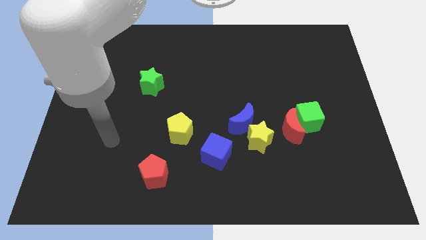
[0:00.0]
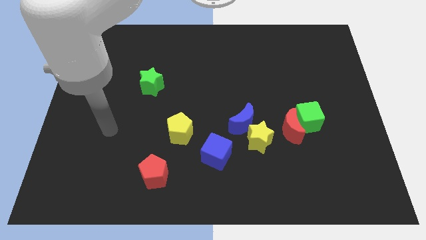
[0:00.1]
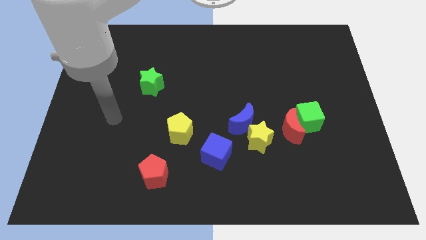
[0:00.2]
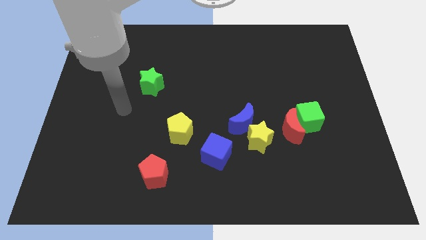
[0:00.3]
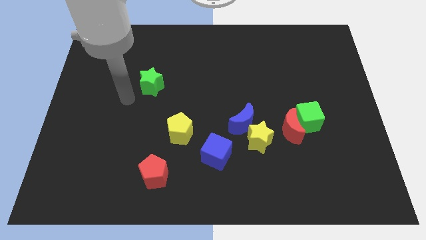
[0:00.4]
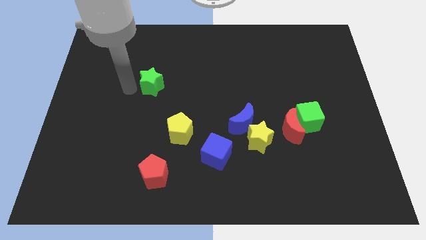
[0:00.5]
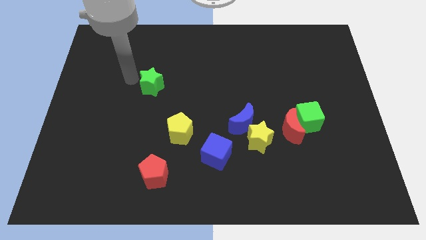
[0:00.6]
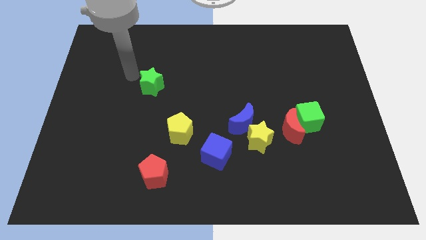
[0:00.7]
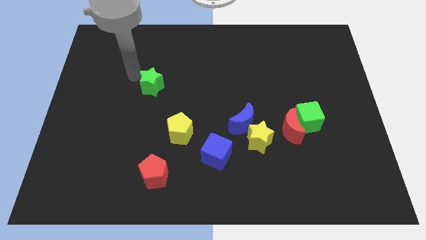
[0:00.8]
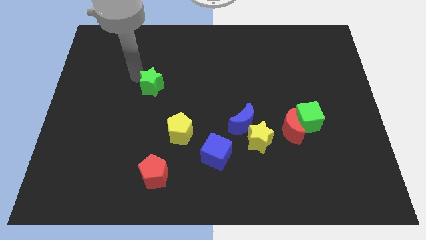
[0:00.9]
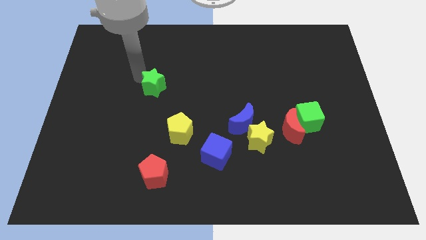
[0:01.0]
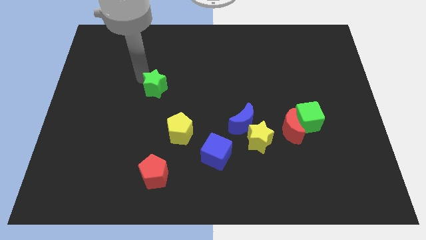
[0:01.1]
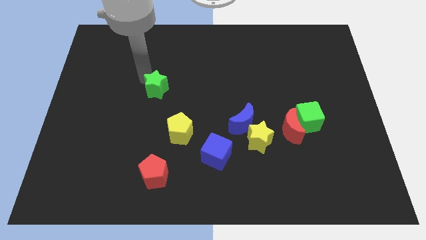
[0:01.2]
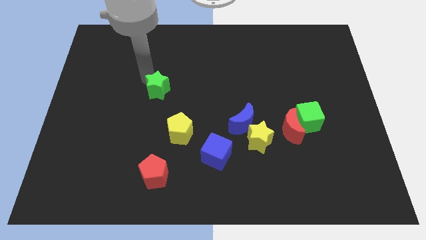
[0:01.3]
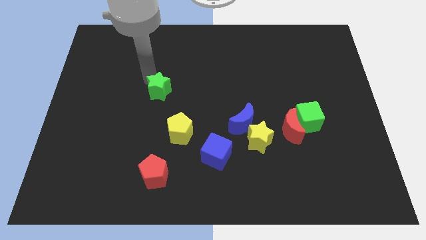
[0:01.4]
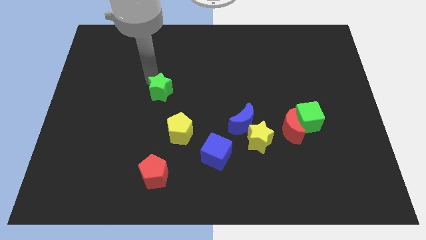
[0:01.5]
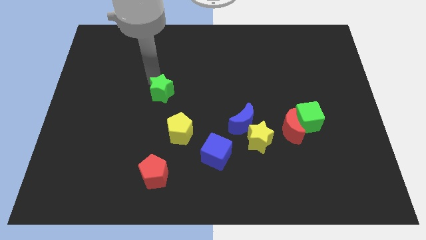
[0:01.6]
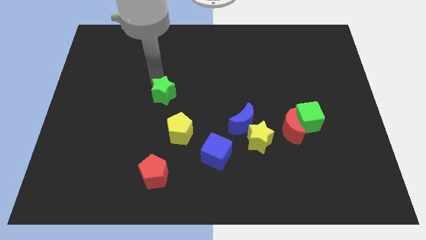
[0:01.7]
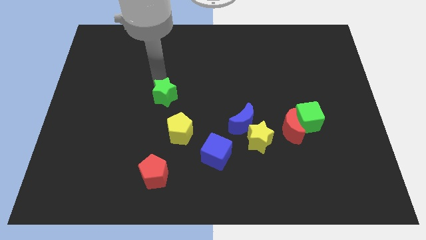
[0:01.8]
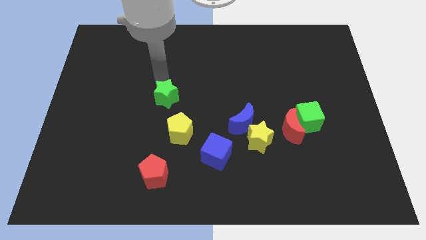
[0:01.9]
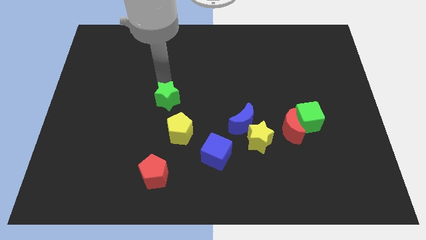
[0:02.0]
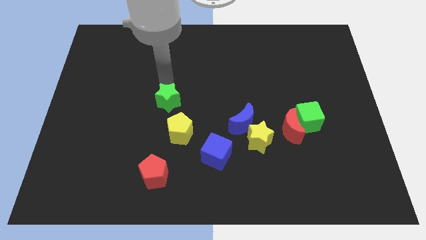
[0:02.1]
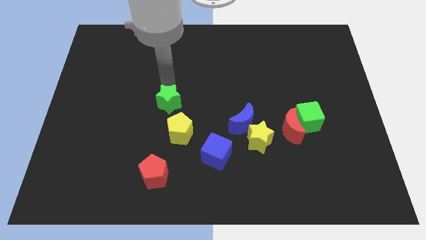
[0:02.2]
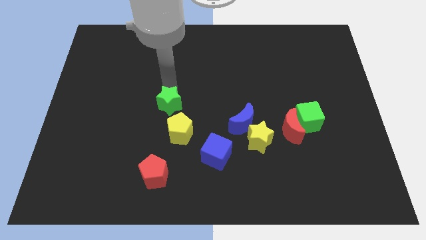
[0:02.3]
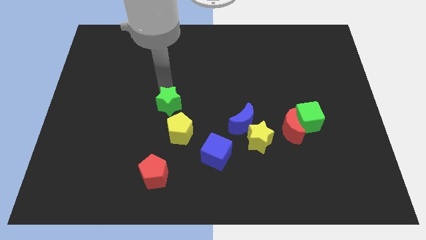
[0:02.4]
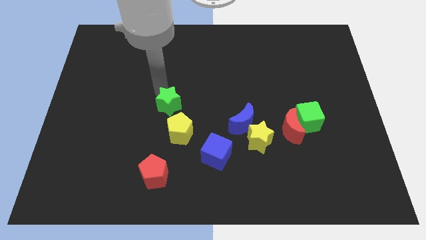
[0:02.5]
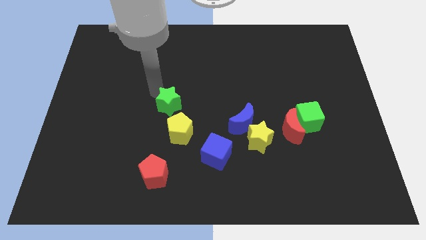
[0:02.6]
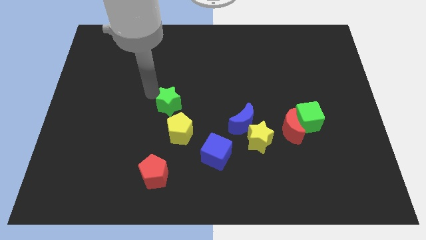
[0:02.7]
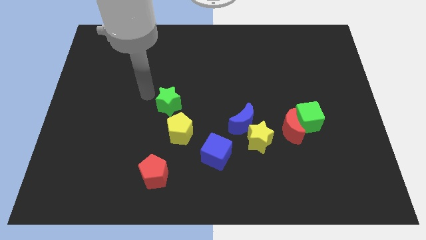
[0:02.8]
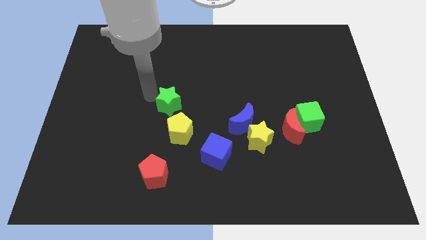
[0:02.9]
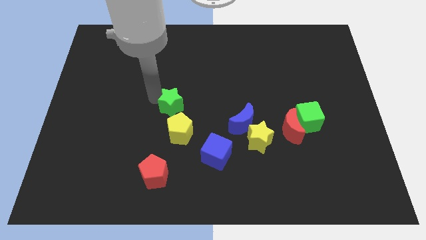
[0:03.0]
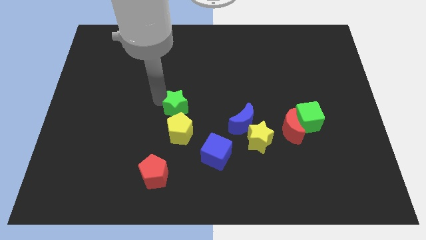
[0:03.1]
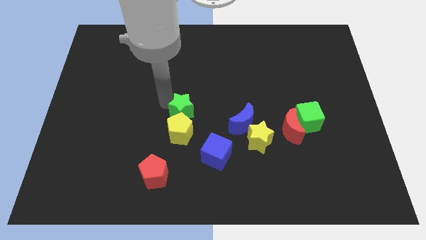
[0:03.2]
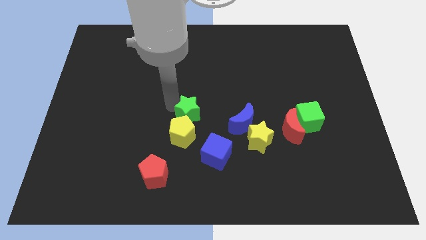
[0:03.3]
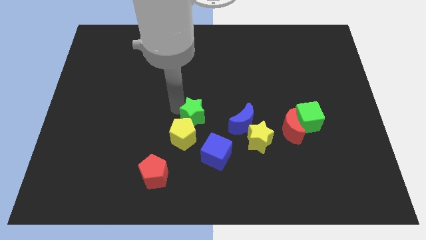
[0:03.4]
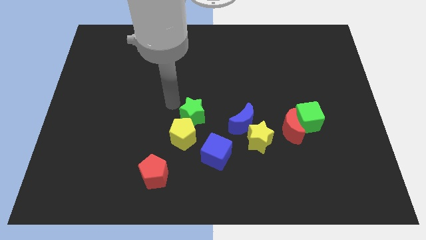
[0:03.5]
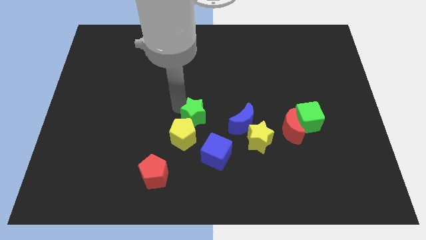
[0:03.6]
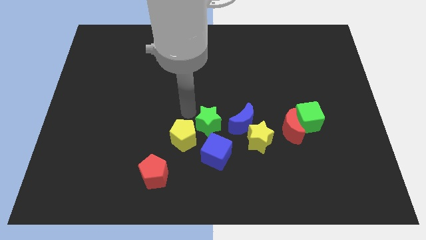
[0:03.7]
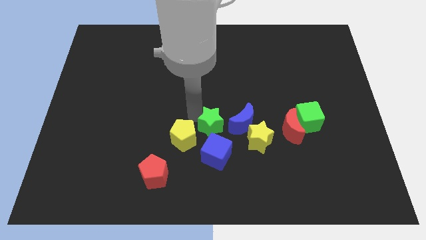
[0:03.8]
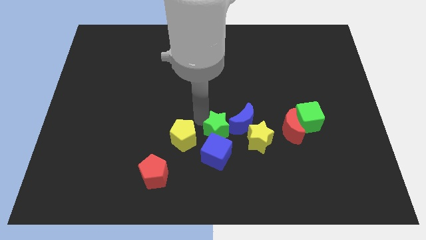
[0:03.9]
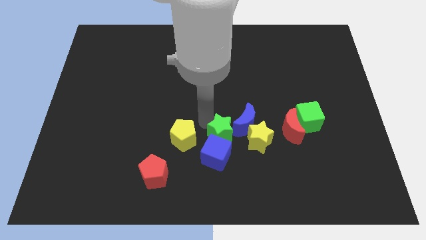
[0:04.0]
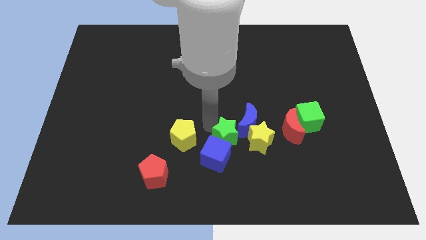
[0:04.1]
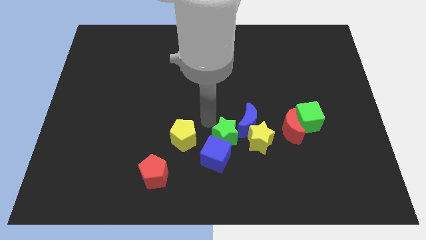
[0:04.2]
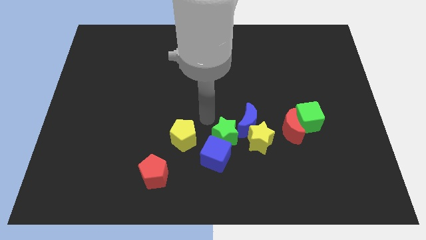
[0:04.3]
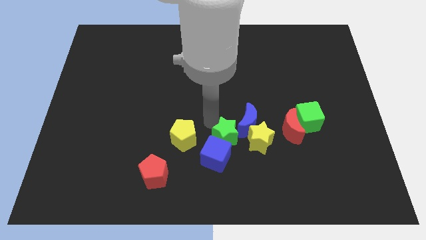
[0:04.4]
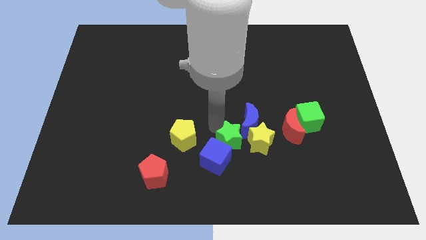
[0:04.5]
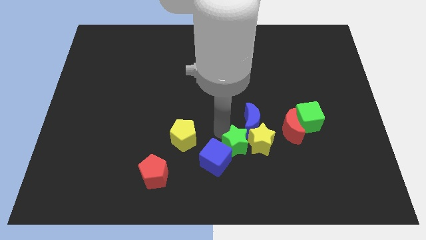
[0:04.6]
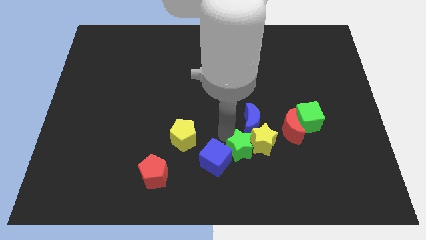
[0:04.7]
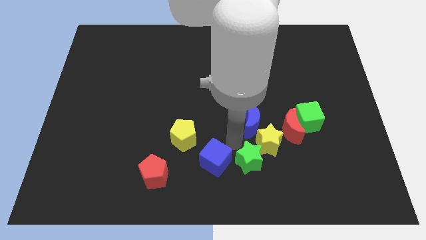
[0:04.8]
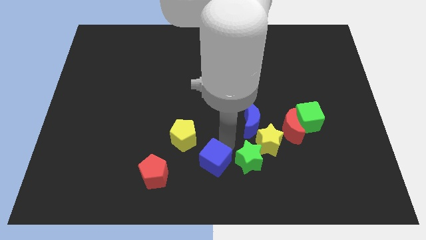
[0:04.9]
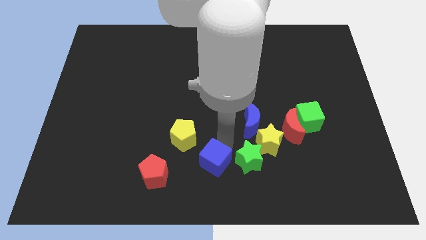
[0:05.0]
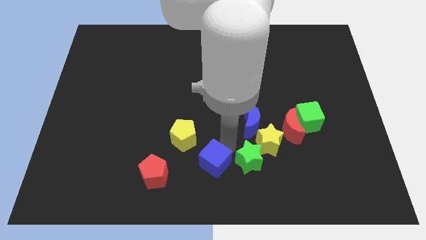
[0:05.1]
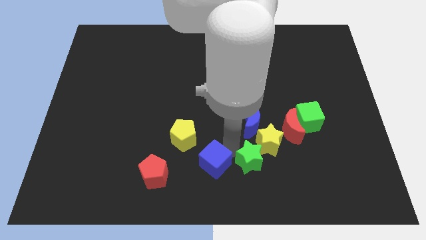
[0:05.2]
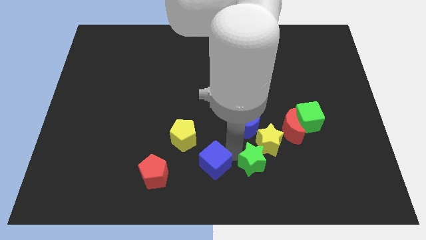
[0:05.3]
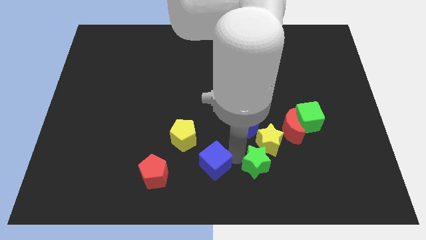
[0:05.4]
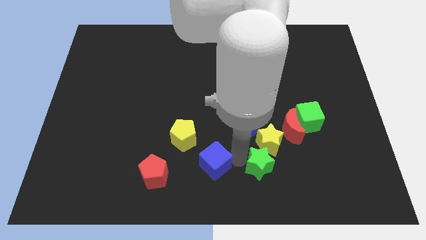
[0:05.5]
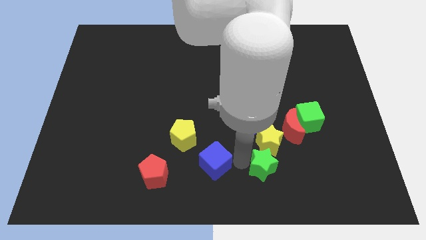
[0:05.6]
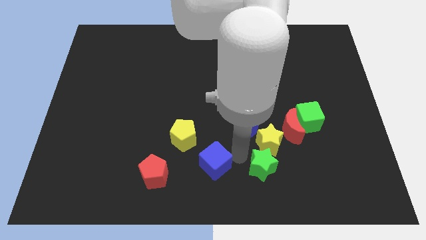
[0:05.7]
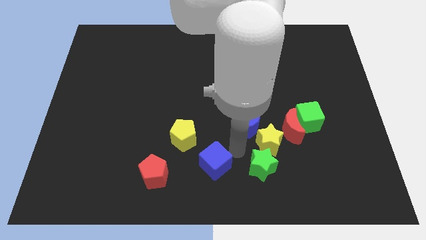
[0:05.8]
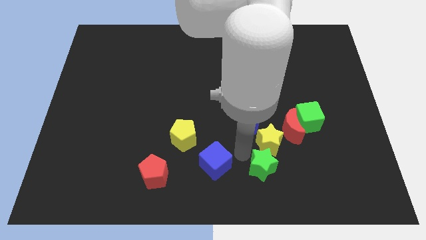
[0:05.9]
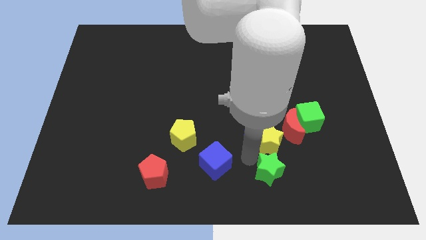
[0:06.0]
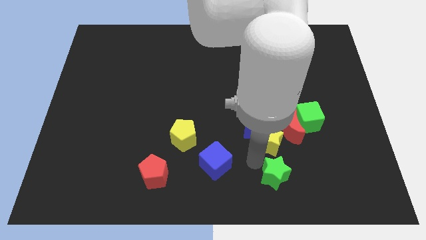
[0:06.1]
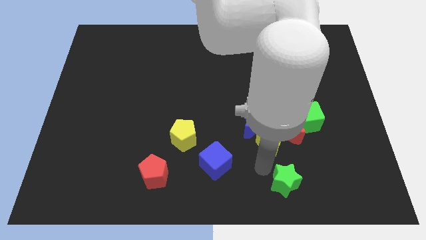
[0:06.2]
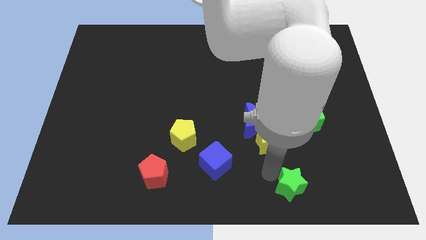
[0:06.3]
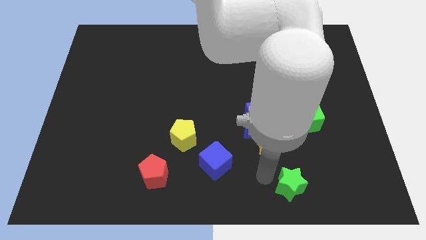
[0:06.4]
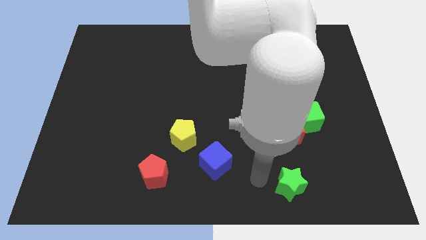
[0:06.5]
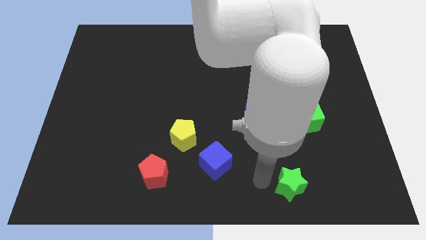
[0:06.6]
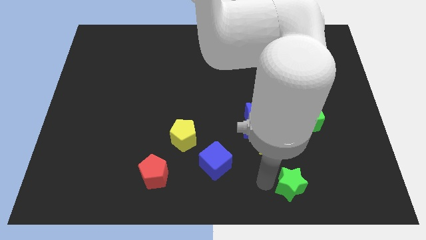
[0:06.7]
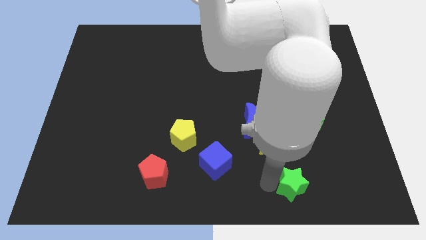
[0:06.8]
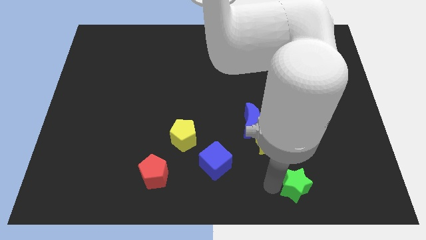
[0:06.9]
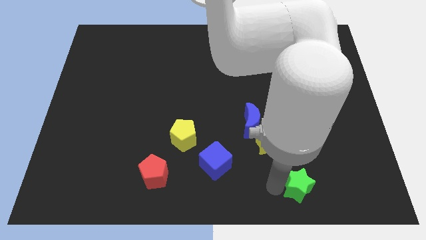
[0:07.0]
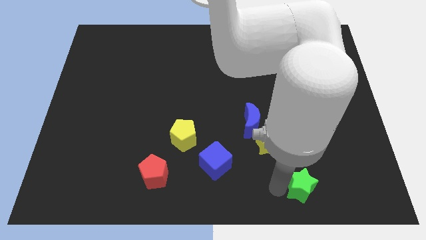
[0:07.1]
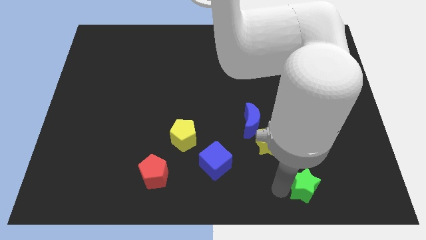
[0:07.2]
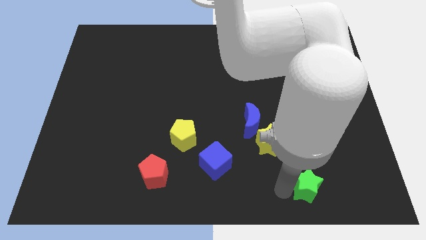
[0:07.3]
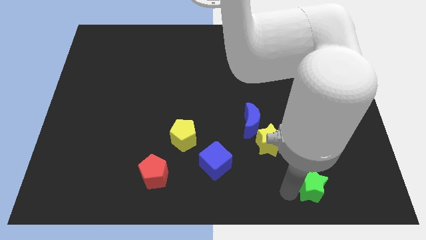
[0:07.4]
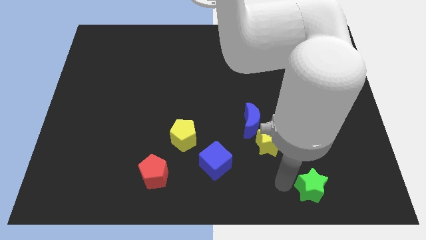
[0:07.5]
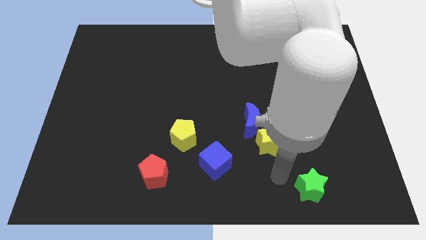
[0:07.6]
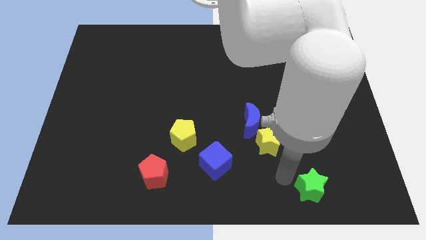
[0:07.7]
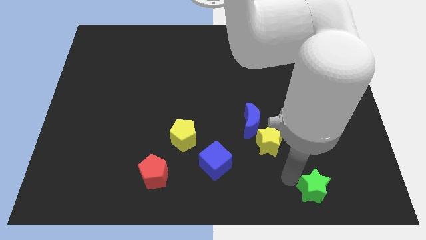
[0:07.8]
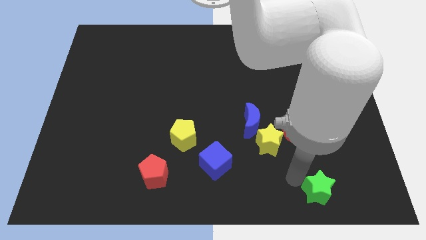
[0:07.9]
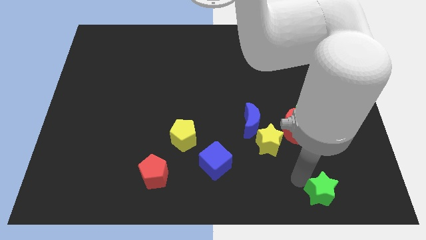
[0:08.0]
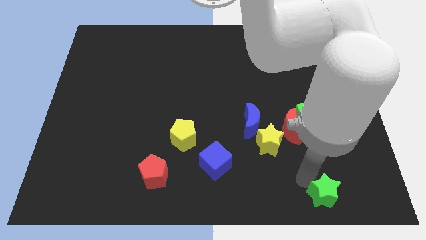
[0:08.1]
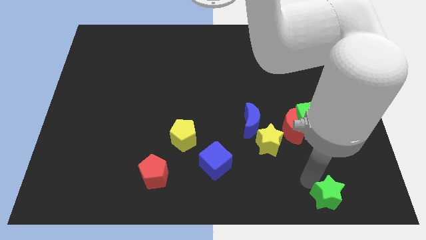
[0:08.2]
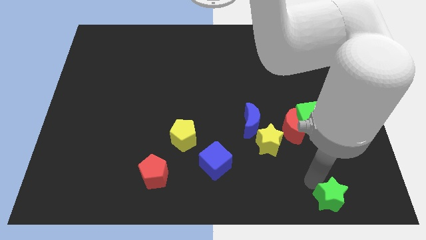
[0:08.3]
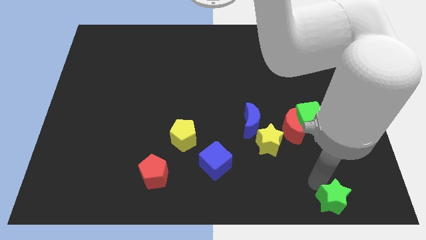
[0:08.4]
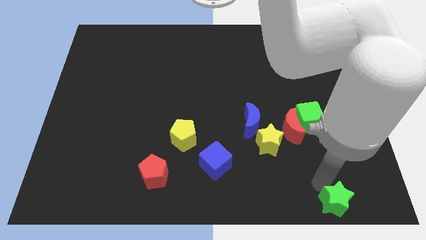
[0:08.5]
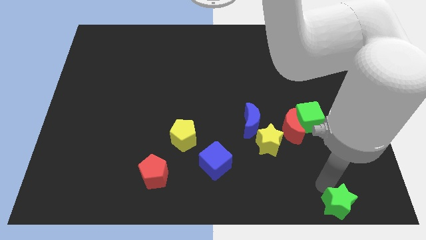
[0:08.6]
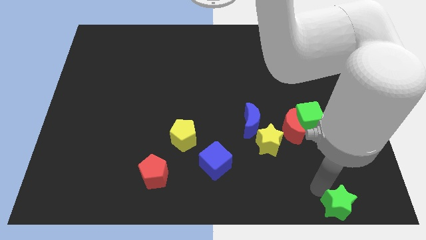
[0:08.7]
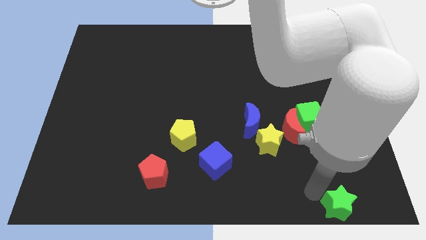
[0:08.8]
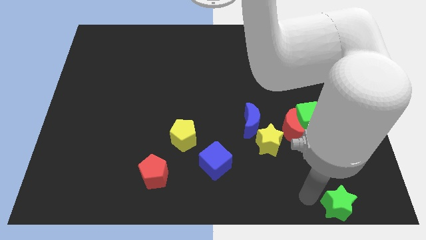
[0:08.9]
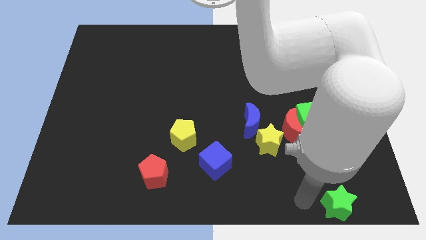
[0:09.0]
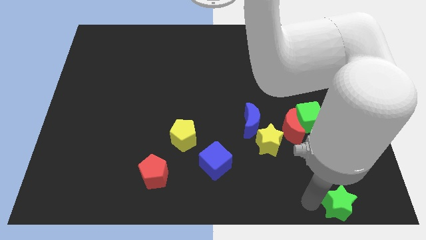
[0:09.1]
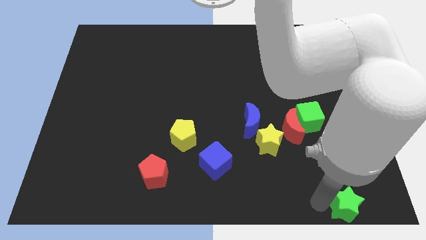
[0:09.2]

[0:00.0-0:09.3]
slide the green star to the bottom right
